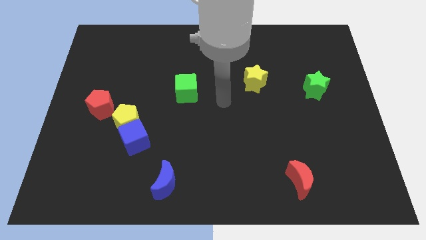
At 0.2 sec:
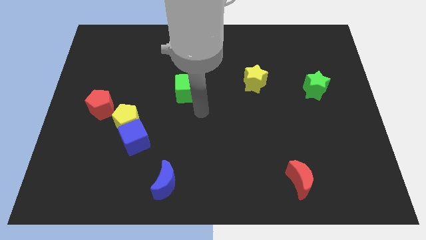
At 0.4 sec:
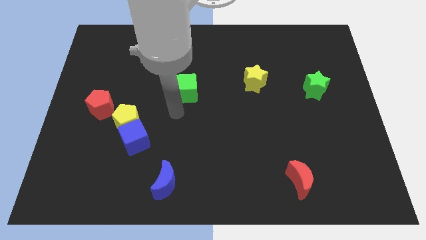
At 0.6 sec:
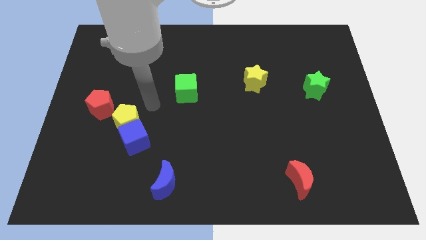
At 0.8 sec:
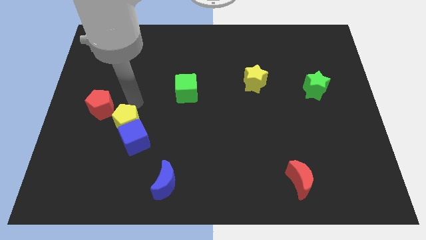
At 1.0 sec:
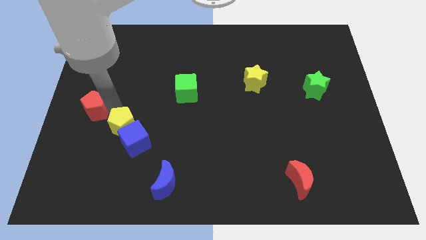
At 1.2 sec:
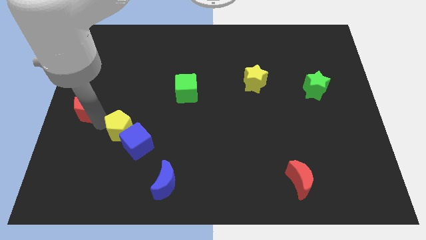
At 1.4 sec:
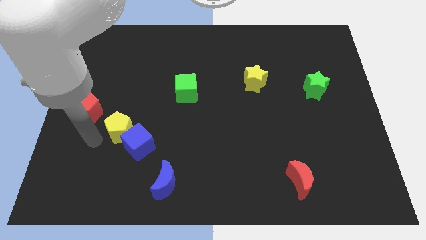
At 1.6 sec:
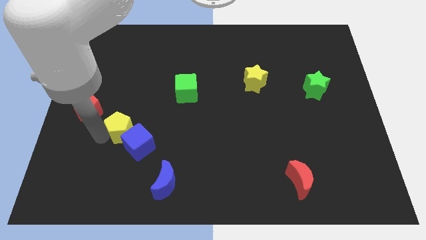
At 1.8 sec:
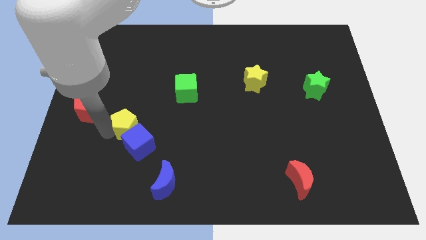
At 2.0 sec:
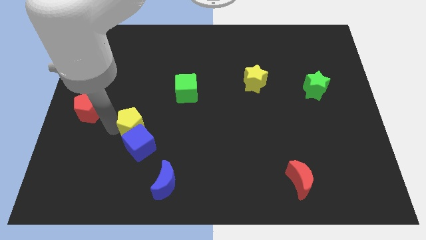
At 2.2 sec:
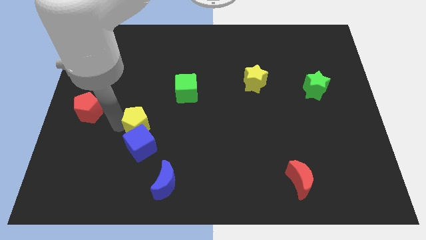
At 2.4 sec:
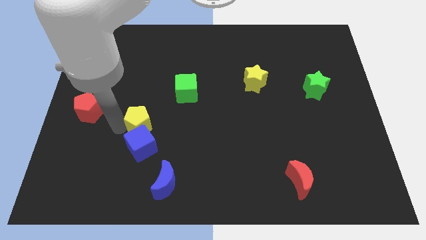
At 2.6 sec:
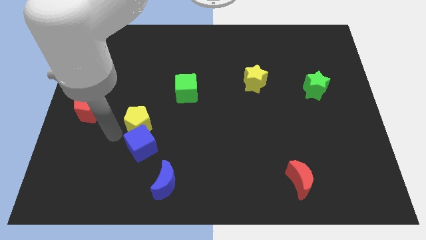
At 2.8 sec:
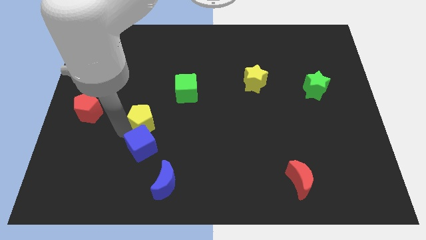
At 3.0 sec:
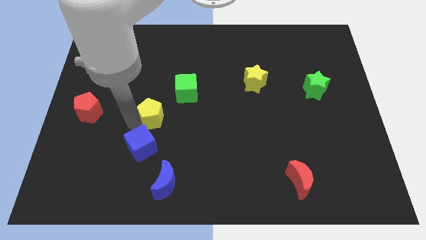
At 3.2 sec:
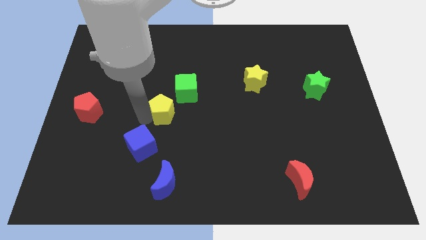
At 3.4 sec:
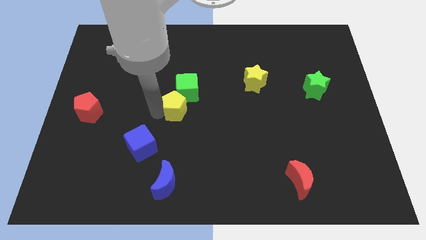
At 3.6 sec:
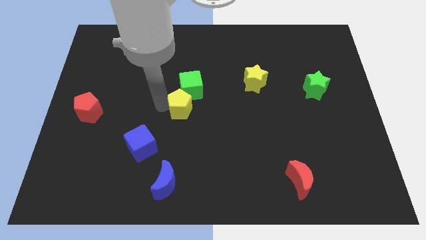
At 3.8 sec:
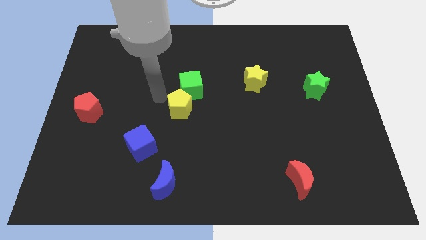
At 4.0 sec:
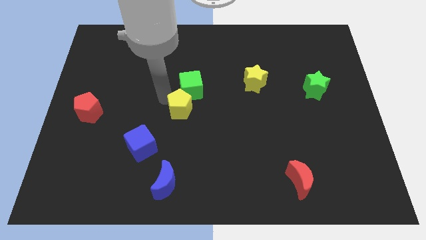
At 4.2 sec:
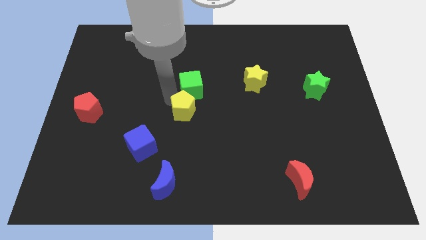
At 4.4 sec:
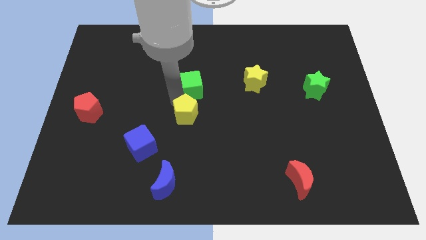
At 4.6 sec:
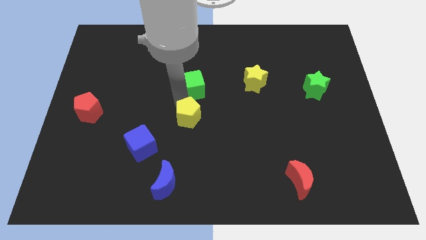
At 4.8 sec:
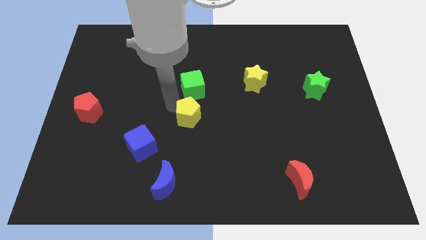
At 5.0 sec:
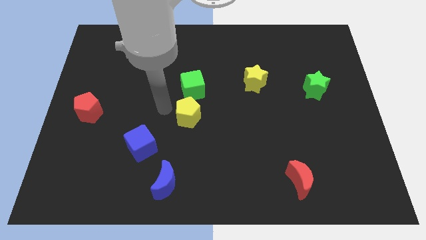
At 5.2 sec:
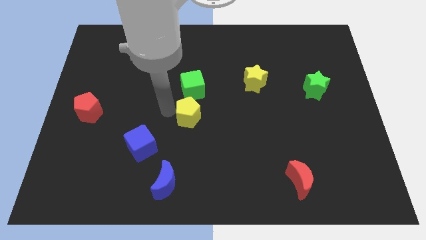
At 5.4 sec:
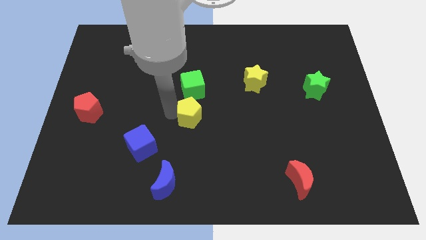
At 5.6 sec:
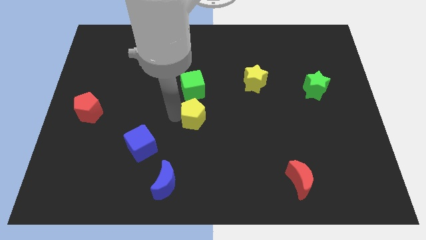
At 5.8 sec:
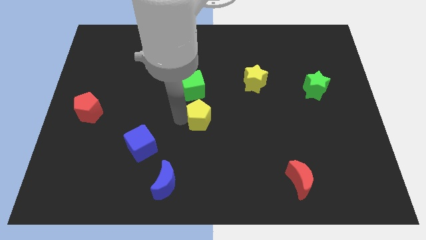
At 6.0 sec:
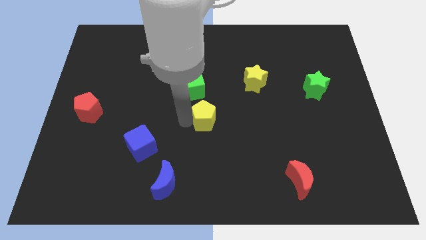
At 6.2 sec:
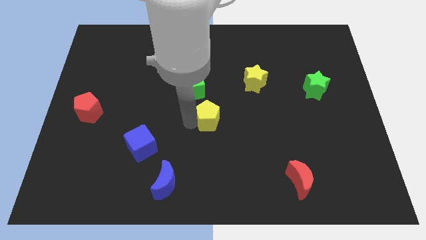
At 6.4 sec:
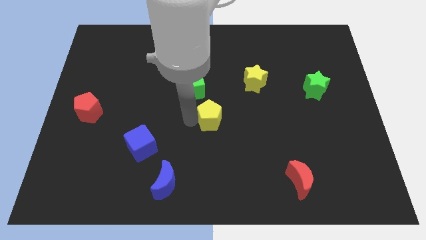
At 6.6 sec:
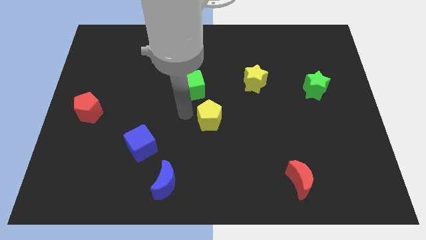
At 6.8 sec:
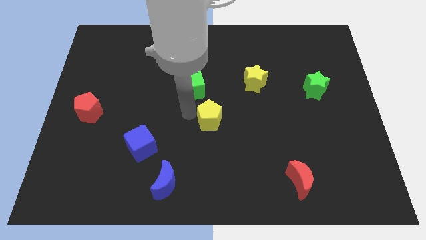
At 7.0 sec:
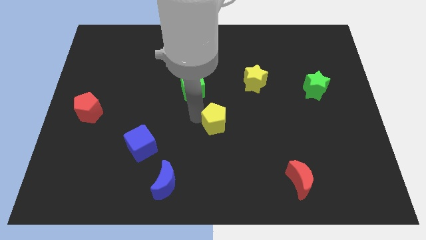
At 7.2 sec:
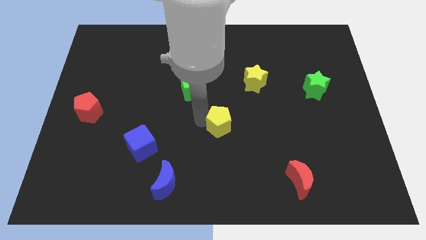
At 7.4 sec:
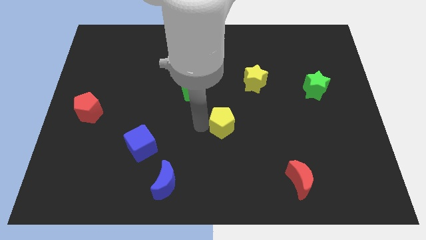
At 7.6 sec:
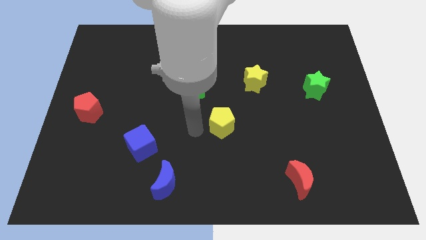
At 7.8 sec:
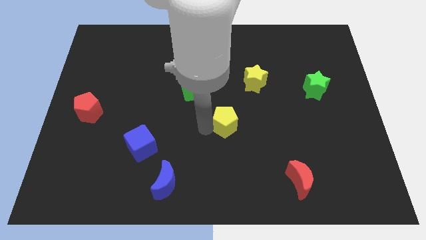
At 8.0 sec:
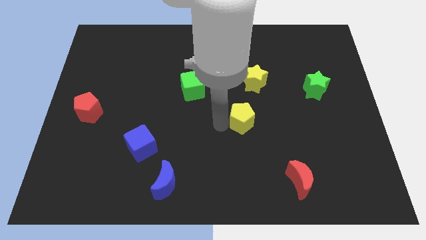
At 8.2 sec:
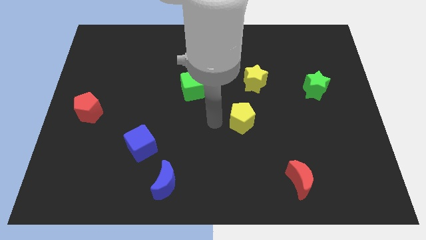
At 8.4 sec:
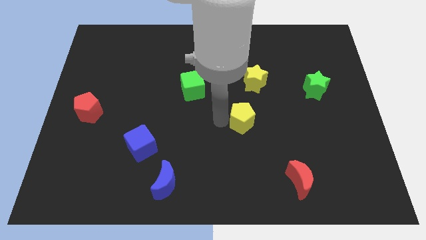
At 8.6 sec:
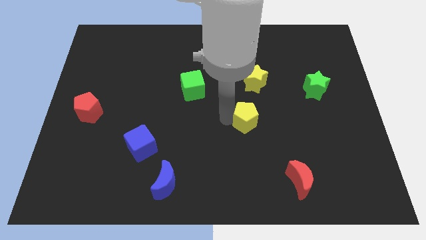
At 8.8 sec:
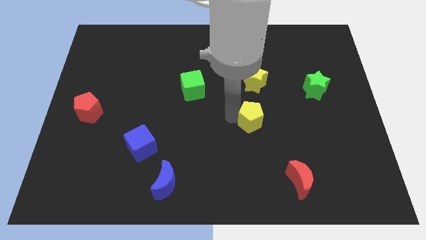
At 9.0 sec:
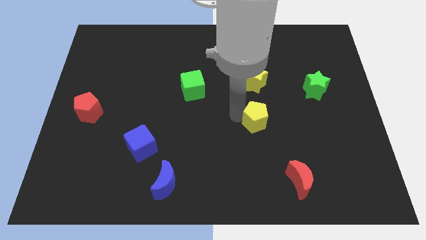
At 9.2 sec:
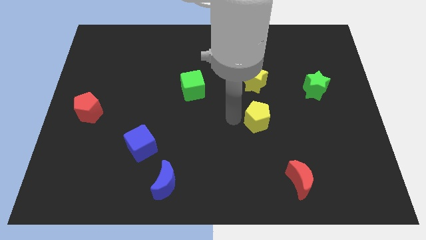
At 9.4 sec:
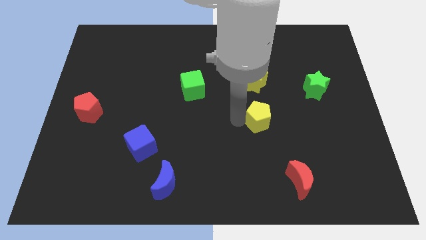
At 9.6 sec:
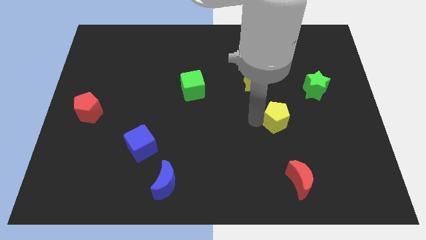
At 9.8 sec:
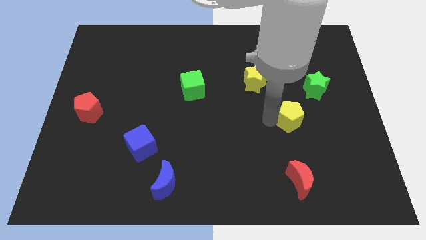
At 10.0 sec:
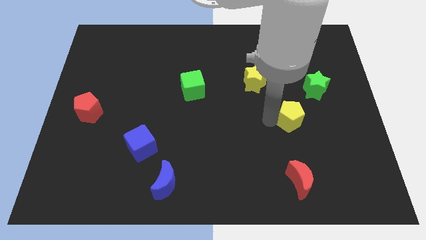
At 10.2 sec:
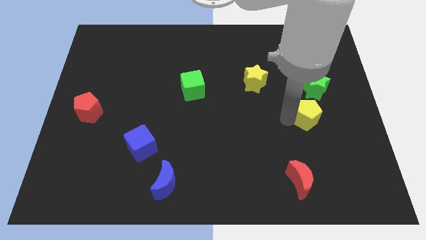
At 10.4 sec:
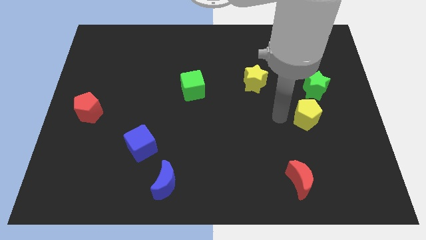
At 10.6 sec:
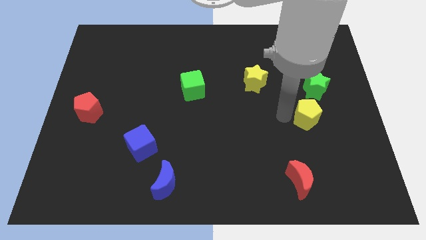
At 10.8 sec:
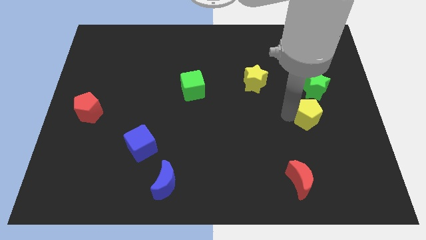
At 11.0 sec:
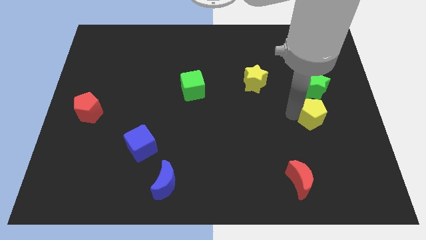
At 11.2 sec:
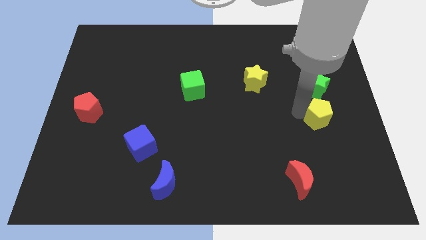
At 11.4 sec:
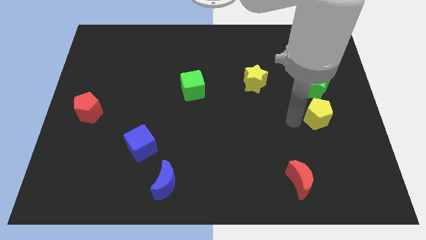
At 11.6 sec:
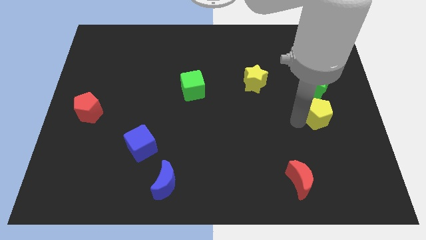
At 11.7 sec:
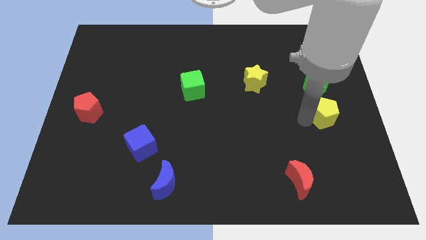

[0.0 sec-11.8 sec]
put the yellow pentagon to the center right
